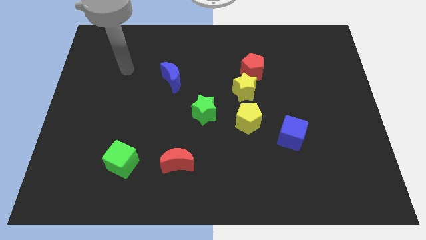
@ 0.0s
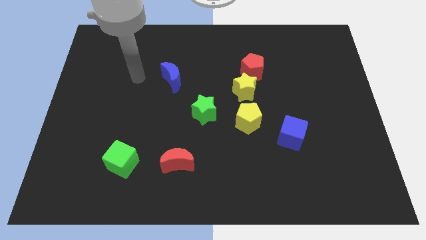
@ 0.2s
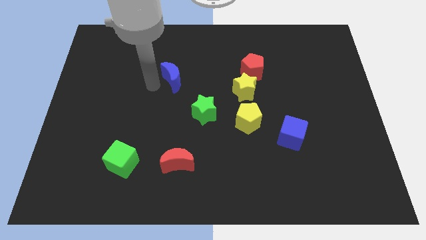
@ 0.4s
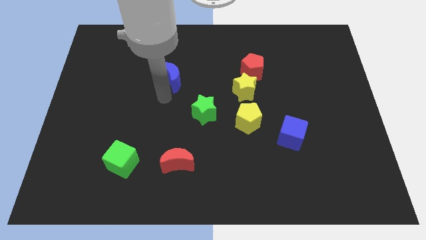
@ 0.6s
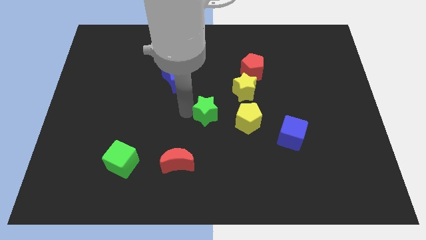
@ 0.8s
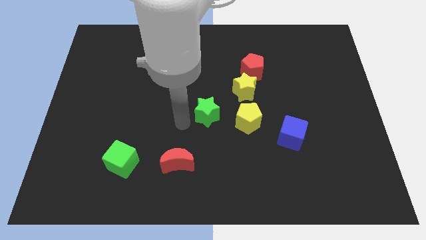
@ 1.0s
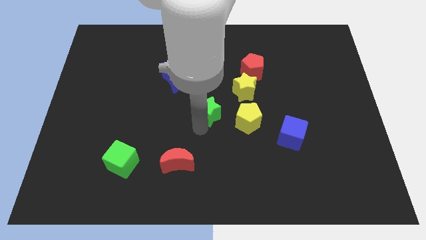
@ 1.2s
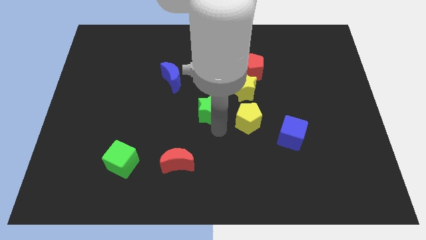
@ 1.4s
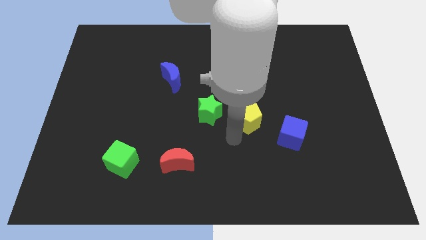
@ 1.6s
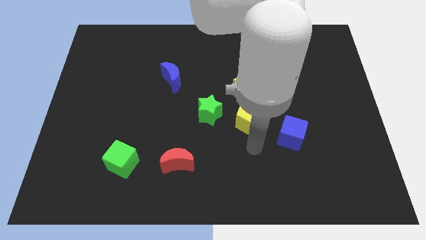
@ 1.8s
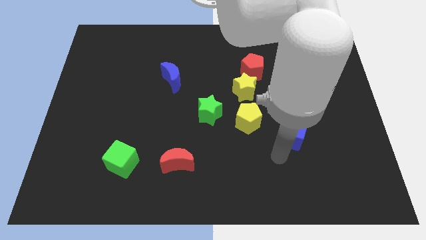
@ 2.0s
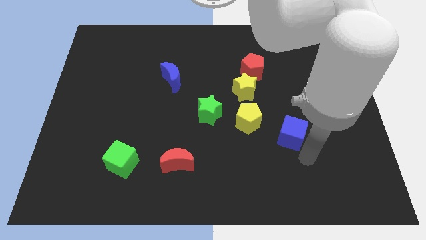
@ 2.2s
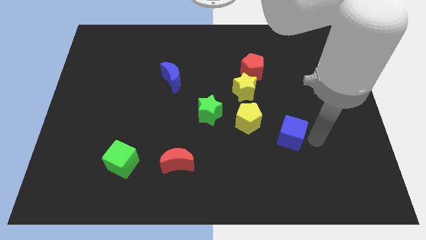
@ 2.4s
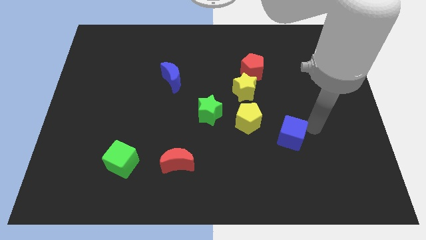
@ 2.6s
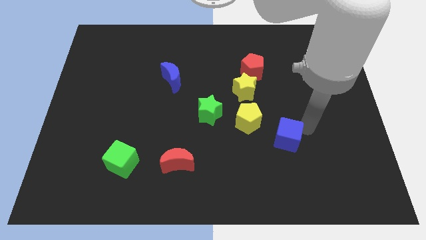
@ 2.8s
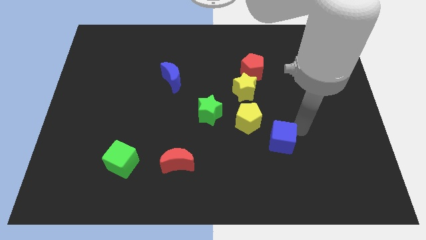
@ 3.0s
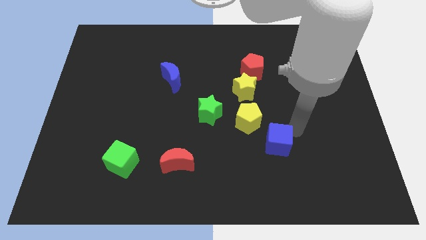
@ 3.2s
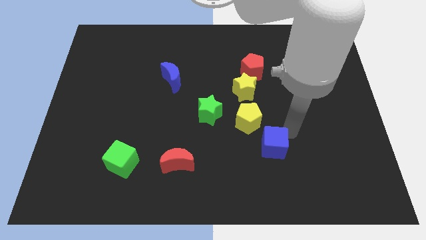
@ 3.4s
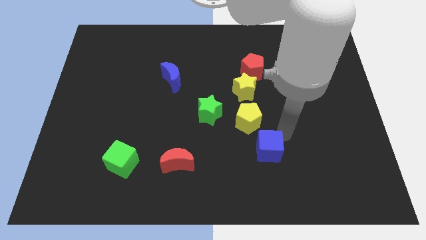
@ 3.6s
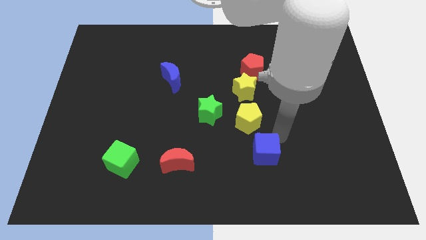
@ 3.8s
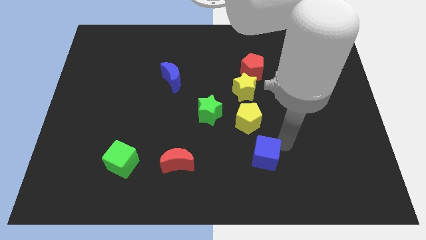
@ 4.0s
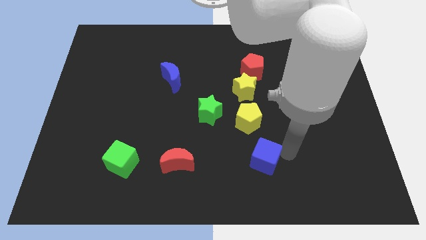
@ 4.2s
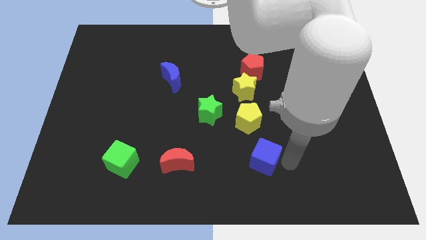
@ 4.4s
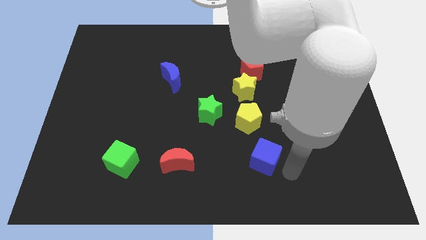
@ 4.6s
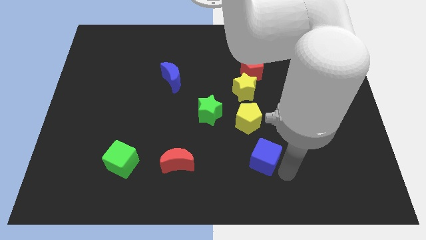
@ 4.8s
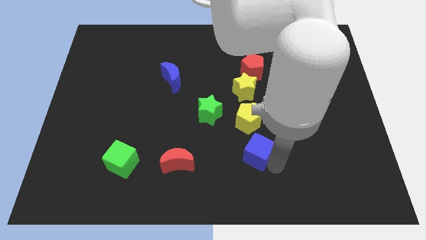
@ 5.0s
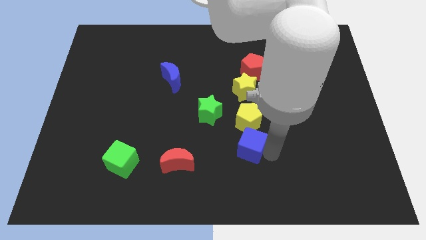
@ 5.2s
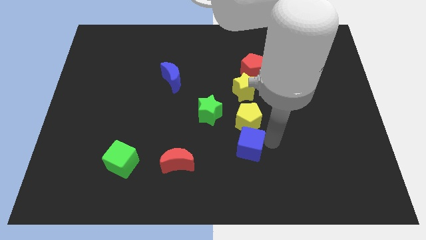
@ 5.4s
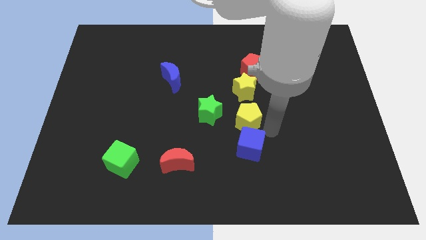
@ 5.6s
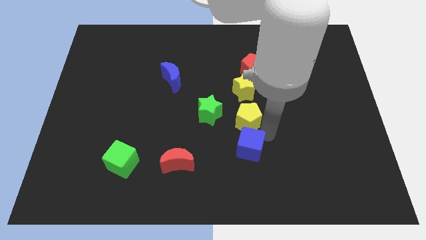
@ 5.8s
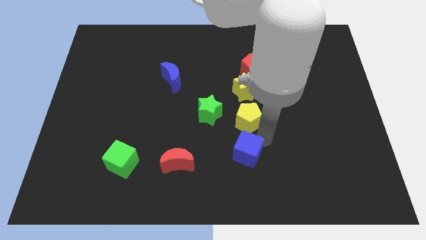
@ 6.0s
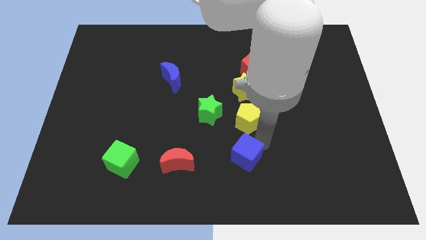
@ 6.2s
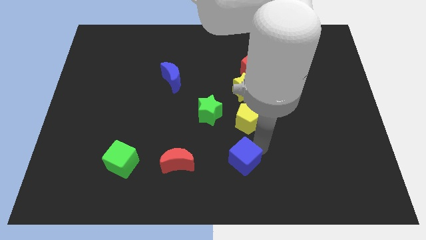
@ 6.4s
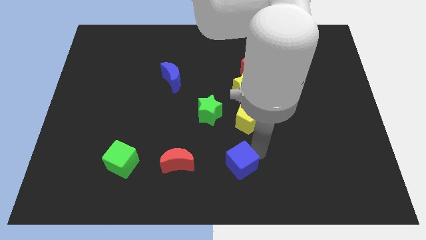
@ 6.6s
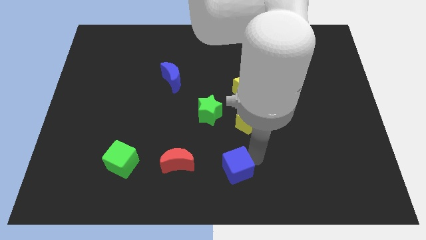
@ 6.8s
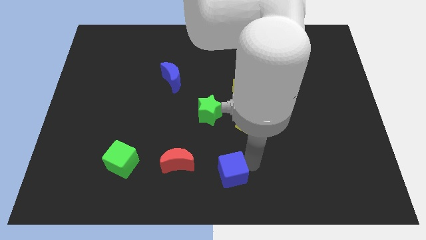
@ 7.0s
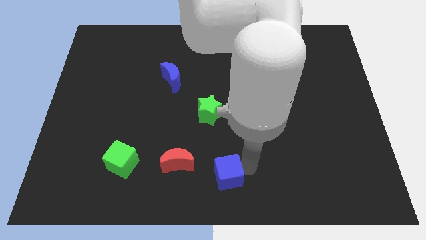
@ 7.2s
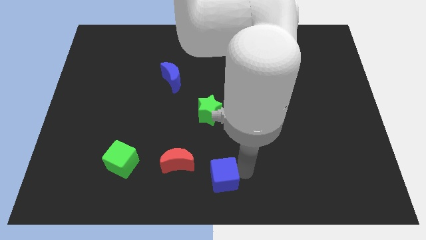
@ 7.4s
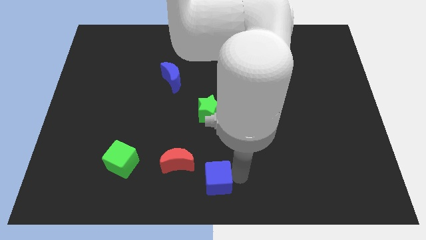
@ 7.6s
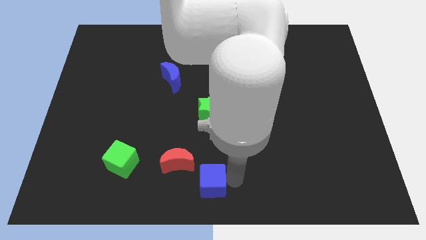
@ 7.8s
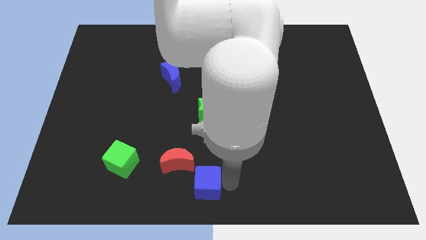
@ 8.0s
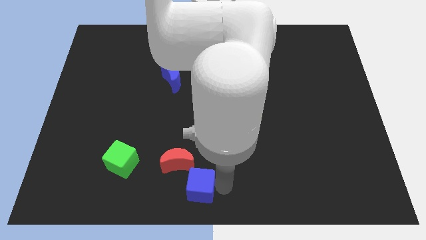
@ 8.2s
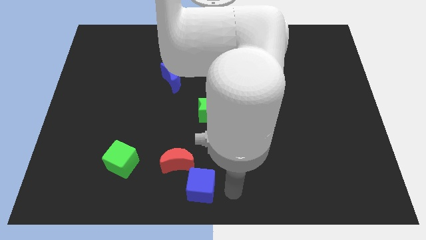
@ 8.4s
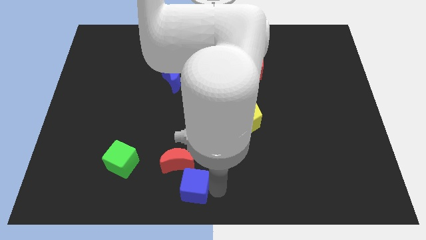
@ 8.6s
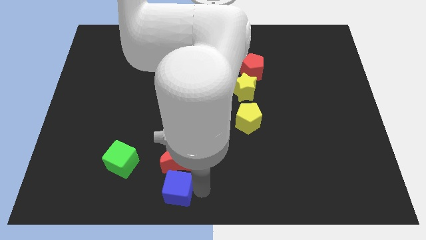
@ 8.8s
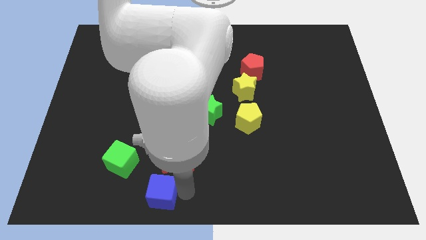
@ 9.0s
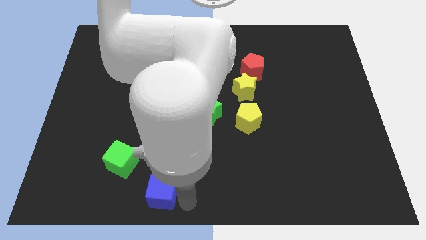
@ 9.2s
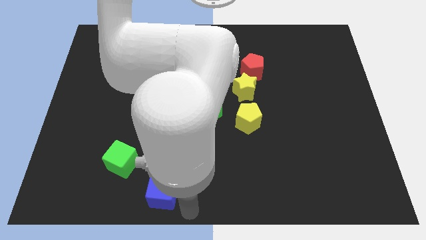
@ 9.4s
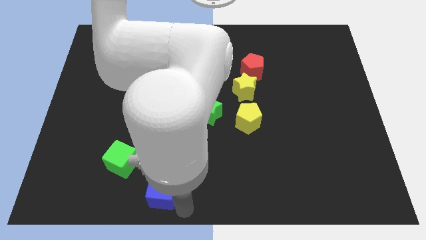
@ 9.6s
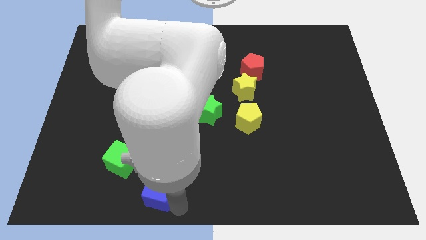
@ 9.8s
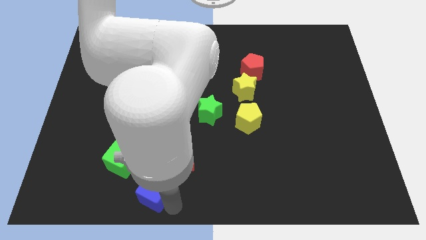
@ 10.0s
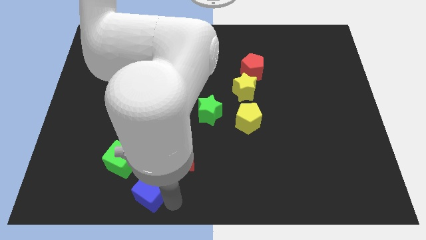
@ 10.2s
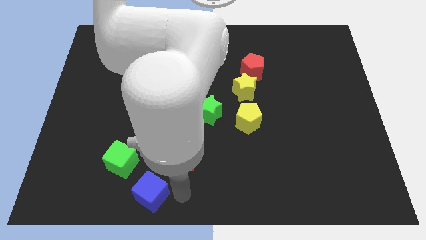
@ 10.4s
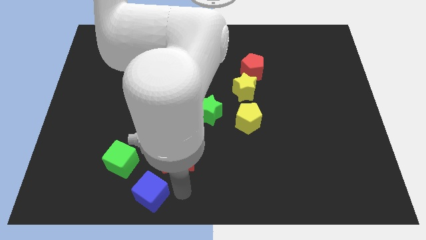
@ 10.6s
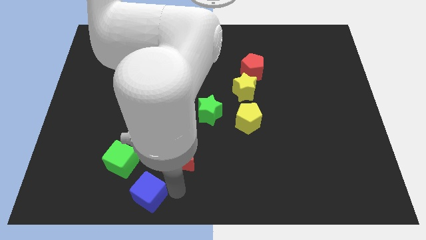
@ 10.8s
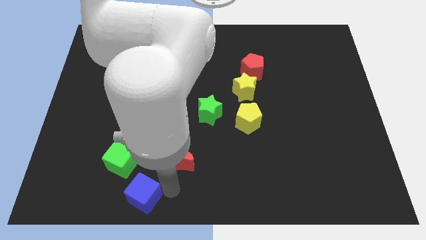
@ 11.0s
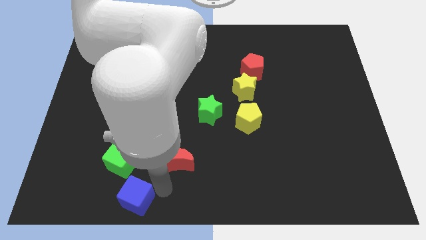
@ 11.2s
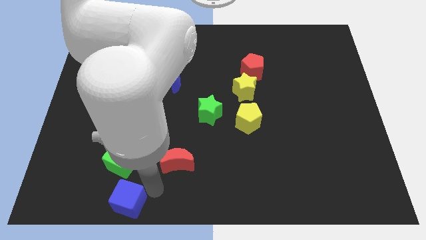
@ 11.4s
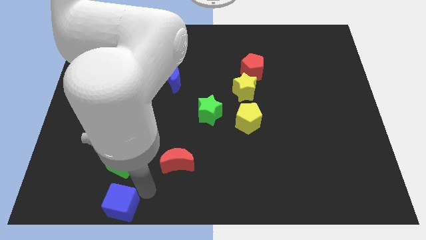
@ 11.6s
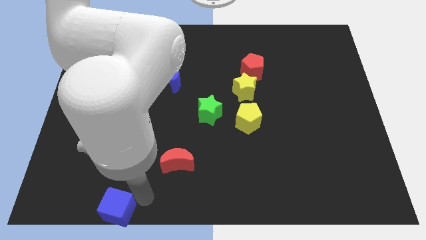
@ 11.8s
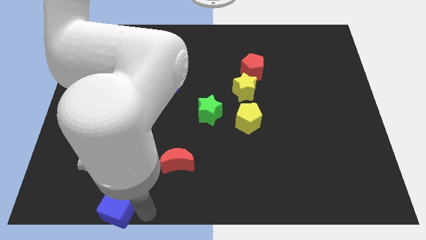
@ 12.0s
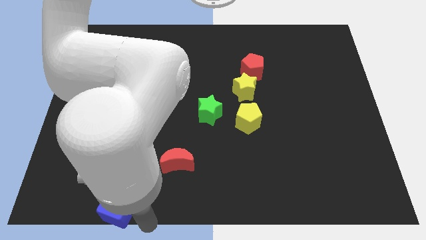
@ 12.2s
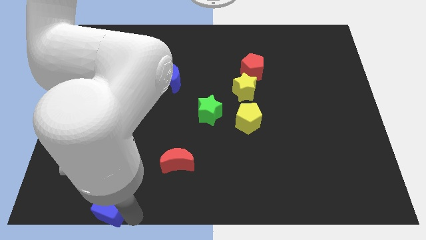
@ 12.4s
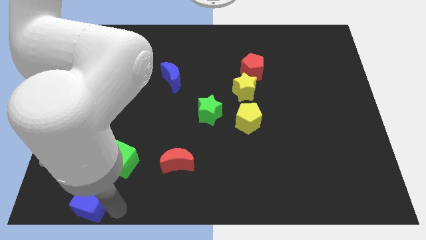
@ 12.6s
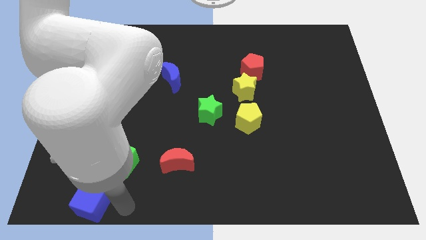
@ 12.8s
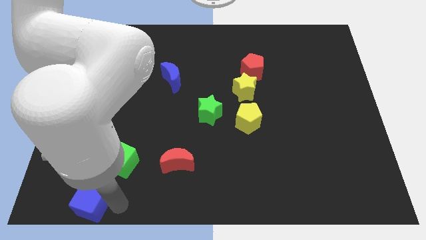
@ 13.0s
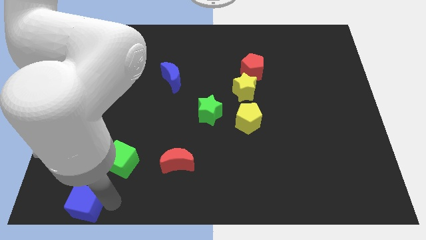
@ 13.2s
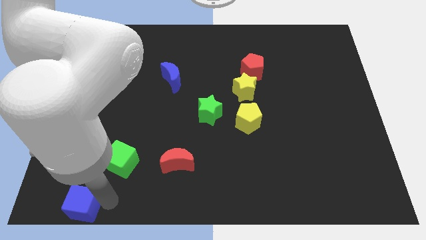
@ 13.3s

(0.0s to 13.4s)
push the blue cube to the bottom left corner
